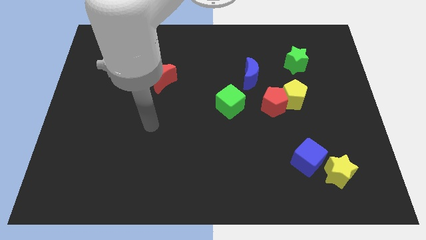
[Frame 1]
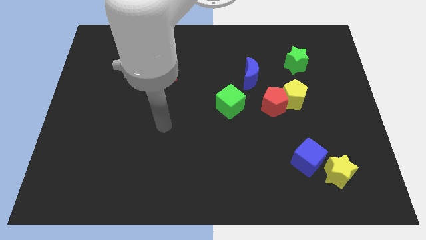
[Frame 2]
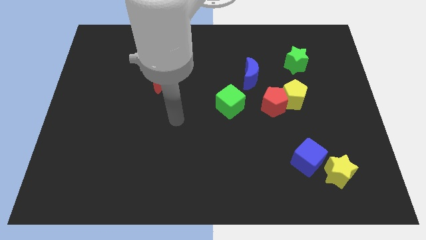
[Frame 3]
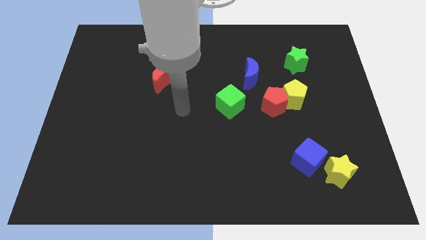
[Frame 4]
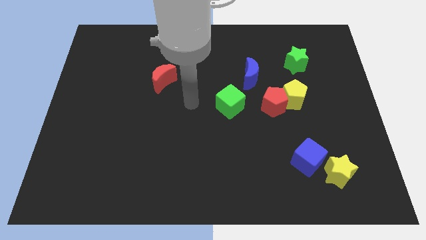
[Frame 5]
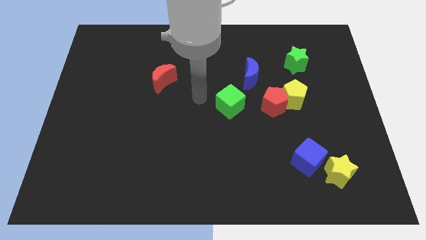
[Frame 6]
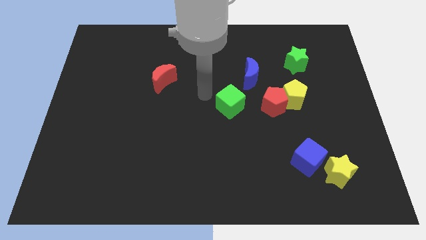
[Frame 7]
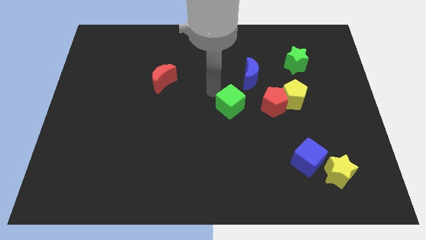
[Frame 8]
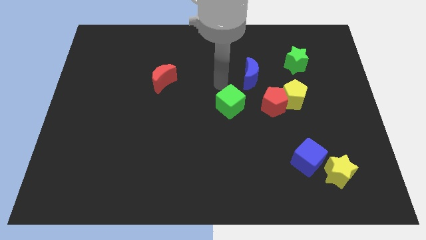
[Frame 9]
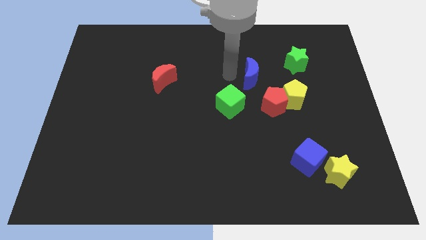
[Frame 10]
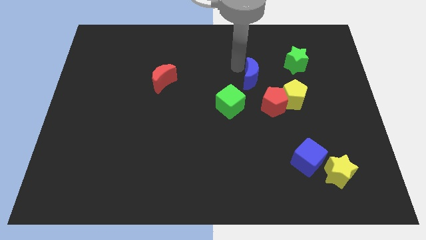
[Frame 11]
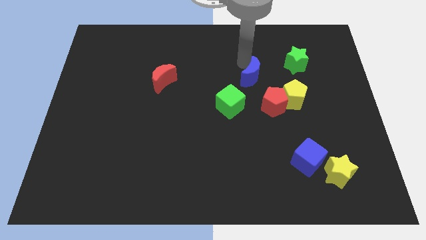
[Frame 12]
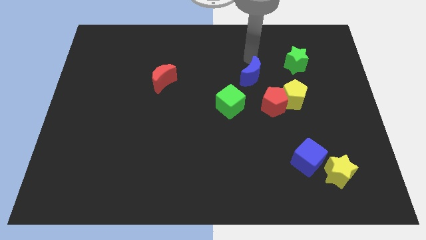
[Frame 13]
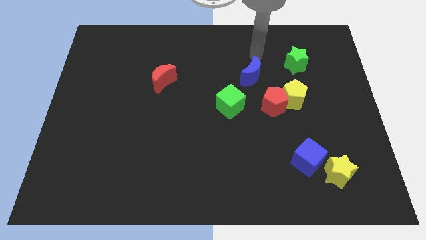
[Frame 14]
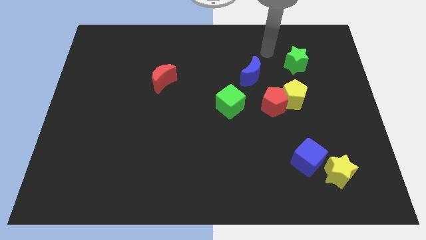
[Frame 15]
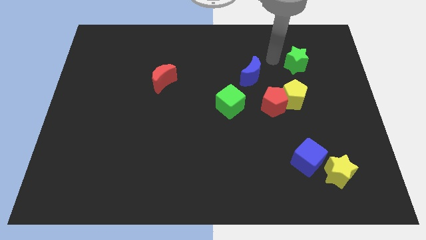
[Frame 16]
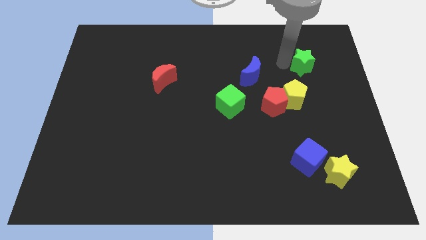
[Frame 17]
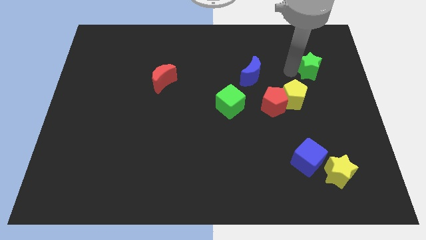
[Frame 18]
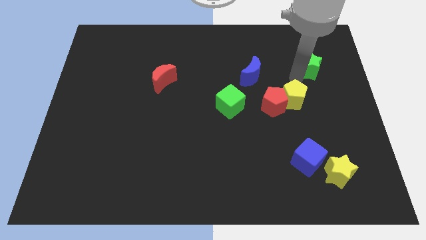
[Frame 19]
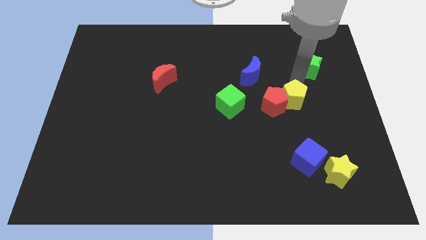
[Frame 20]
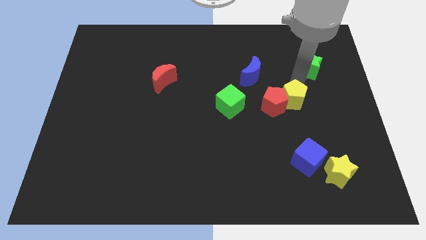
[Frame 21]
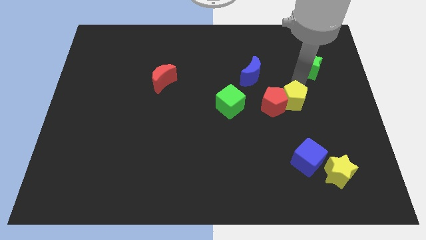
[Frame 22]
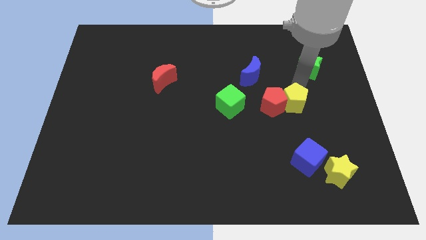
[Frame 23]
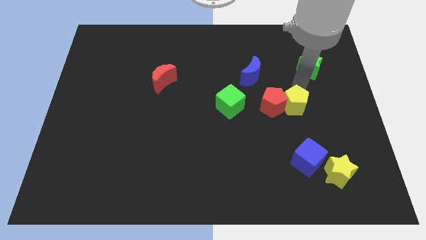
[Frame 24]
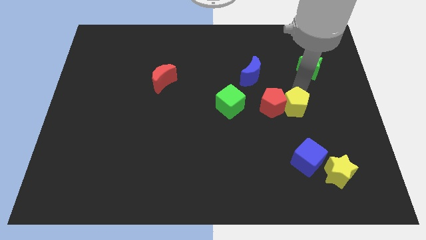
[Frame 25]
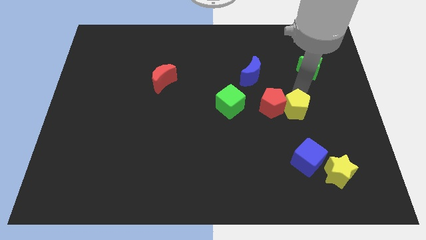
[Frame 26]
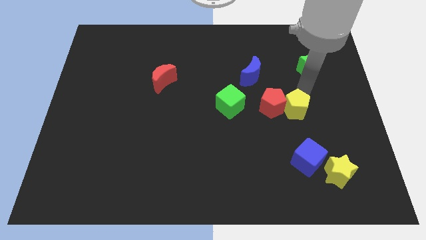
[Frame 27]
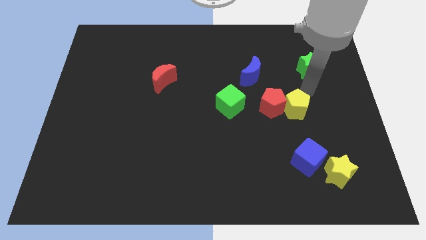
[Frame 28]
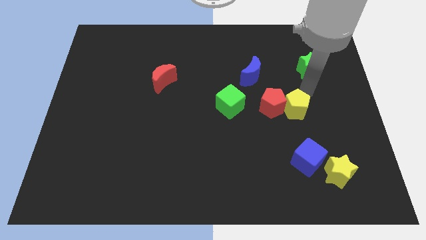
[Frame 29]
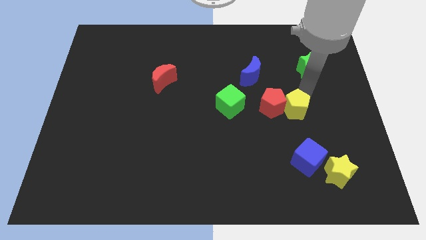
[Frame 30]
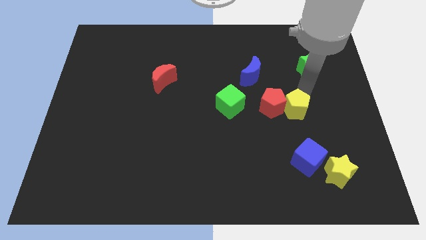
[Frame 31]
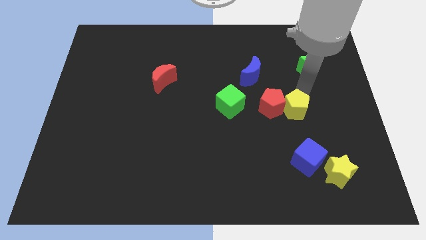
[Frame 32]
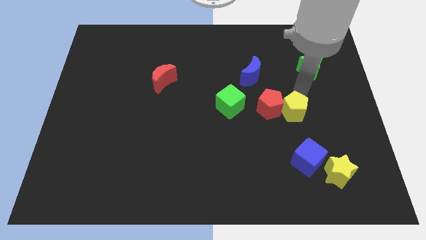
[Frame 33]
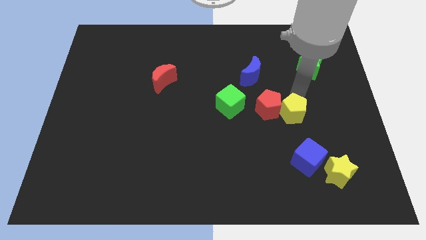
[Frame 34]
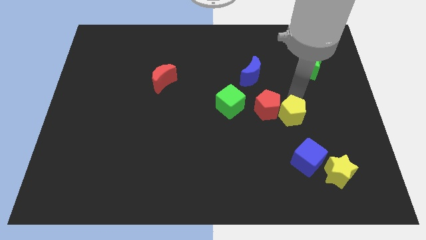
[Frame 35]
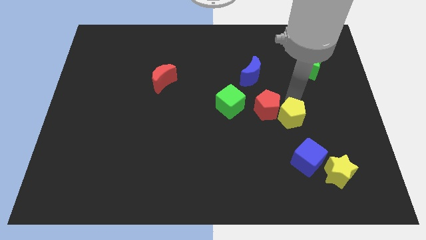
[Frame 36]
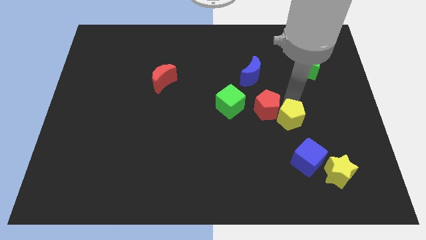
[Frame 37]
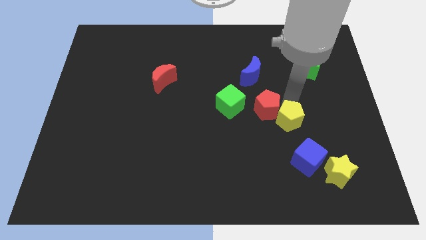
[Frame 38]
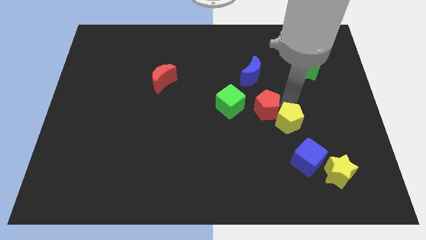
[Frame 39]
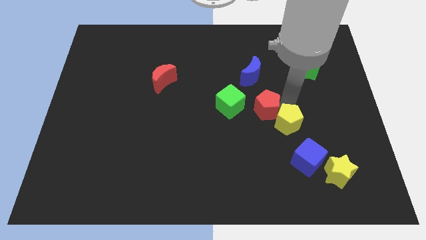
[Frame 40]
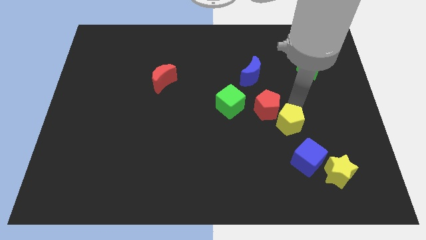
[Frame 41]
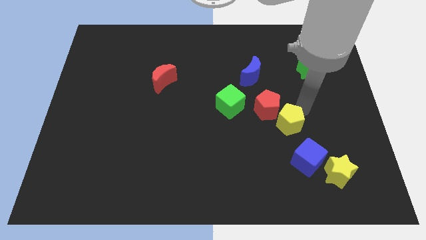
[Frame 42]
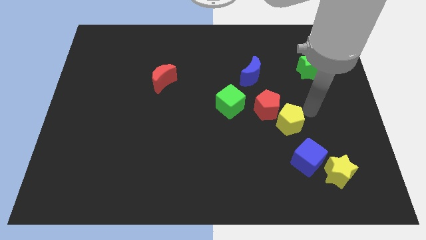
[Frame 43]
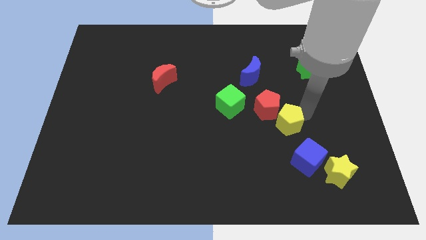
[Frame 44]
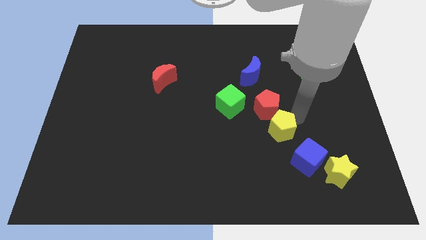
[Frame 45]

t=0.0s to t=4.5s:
move the yellow pentagon downwards and left diagonally somewhat

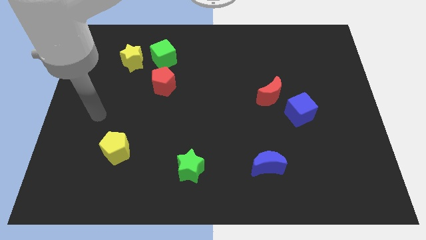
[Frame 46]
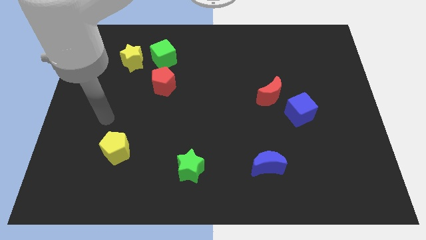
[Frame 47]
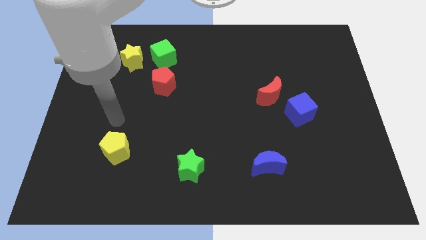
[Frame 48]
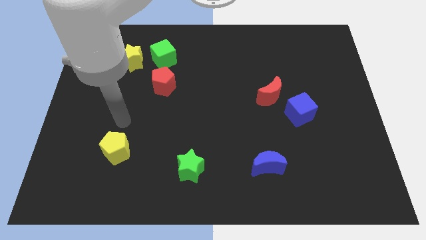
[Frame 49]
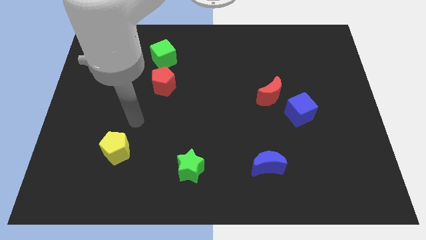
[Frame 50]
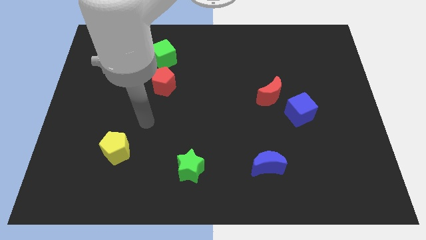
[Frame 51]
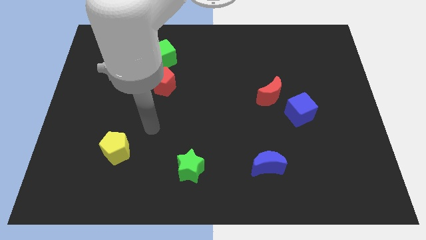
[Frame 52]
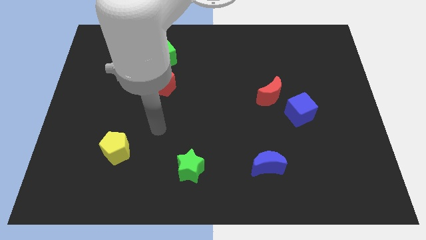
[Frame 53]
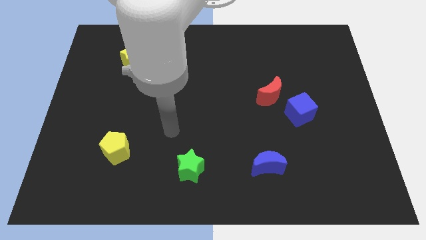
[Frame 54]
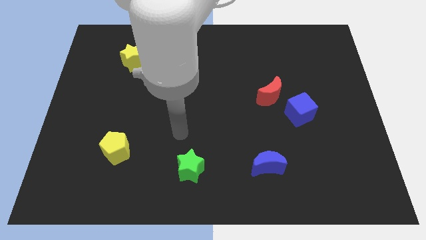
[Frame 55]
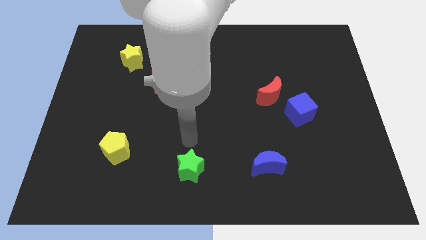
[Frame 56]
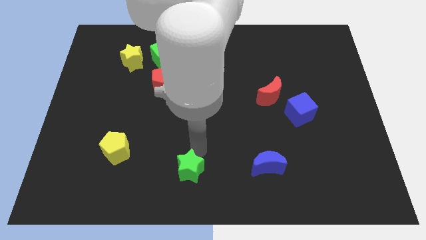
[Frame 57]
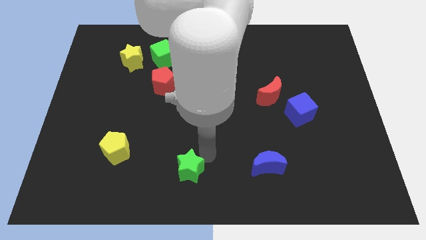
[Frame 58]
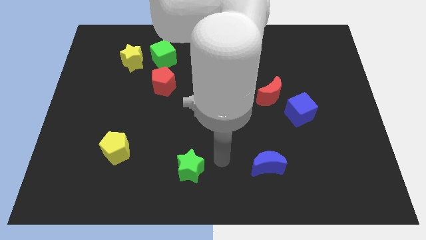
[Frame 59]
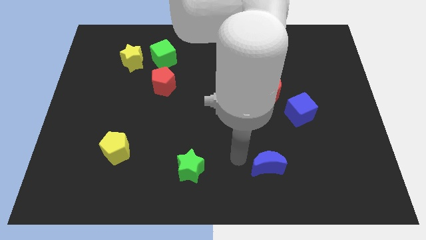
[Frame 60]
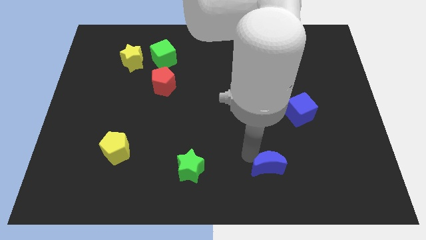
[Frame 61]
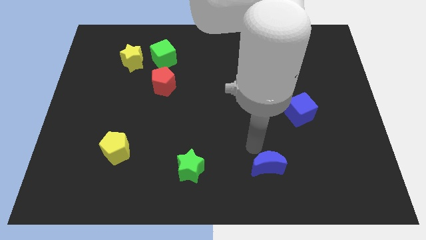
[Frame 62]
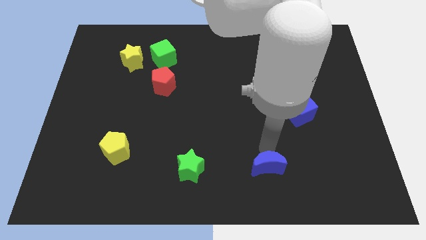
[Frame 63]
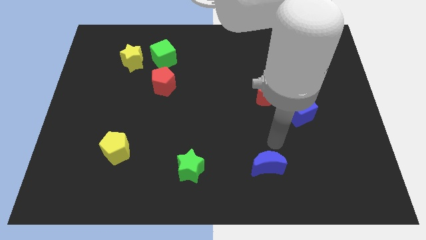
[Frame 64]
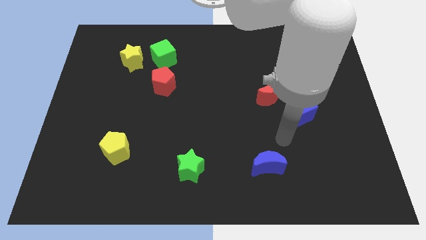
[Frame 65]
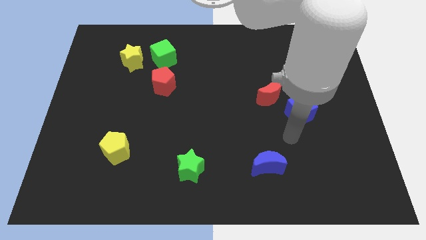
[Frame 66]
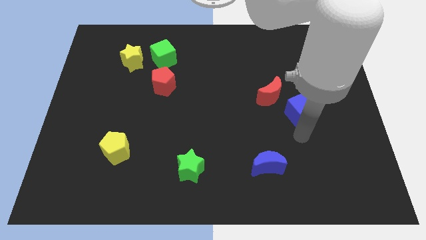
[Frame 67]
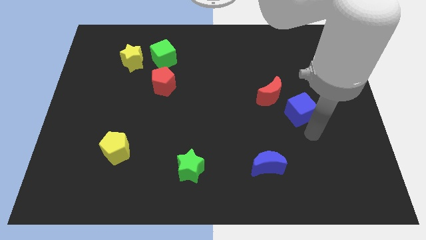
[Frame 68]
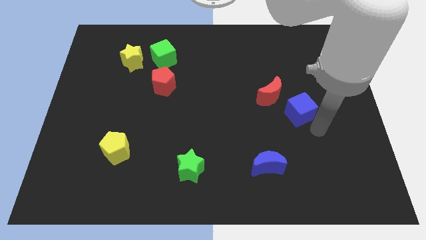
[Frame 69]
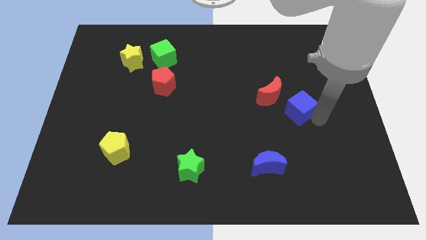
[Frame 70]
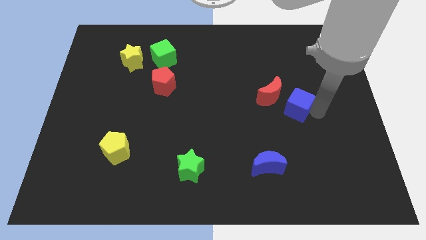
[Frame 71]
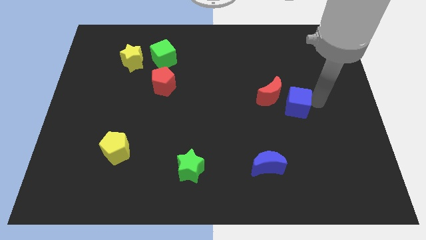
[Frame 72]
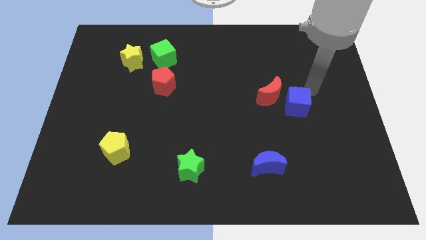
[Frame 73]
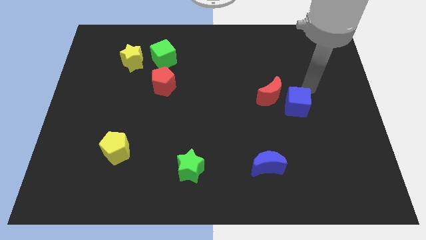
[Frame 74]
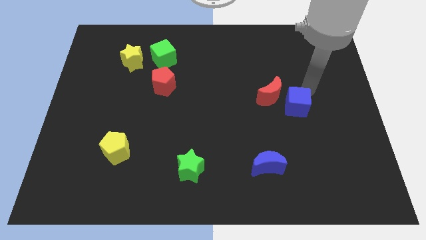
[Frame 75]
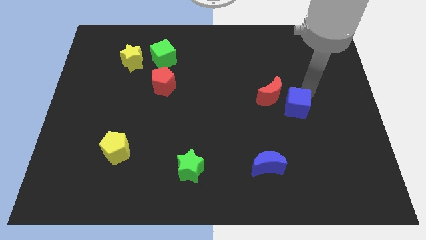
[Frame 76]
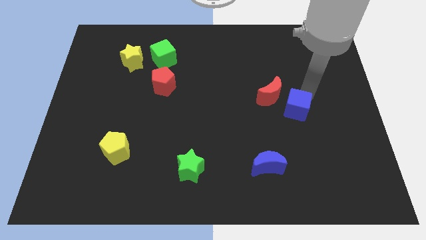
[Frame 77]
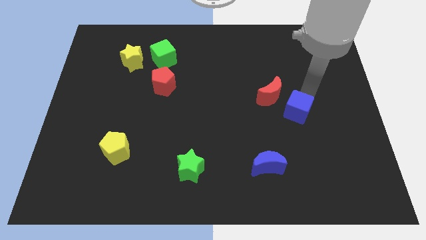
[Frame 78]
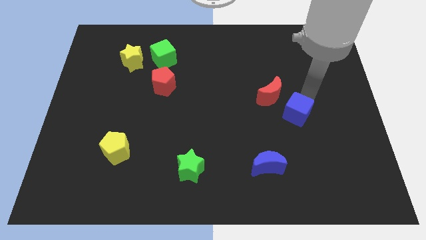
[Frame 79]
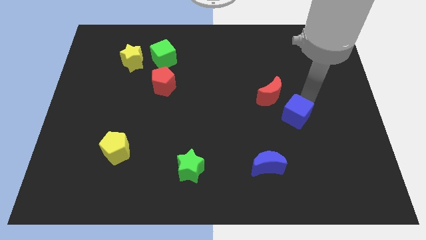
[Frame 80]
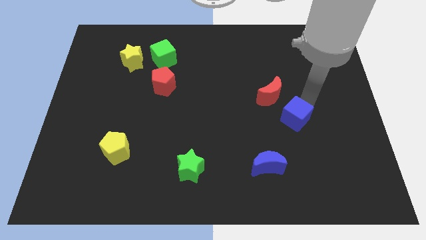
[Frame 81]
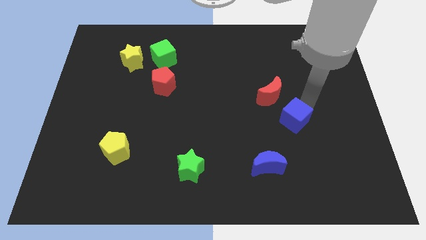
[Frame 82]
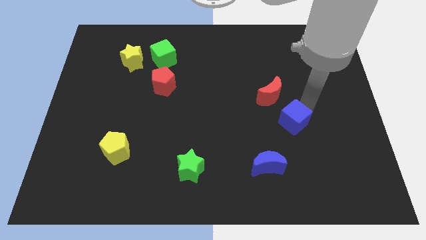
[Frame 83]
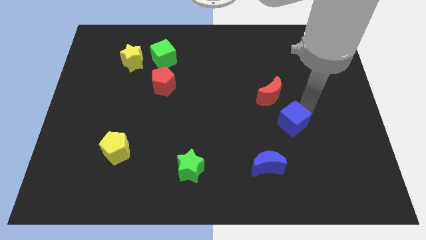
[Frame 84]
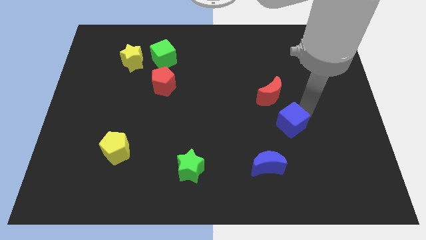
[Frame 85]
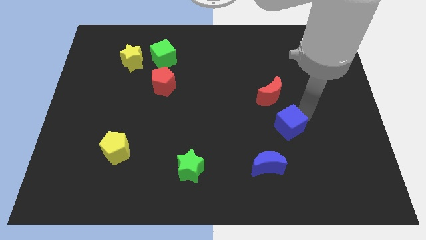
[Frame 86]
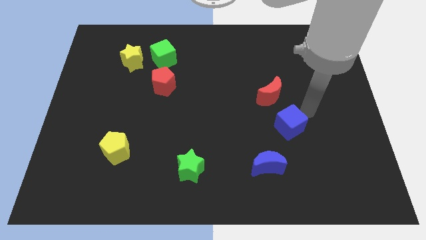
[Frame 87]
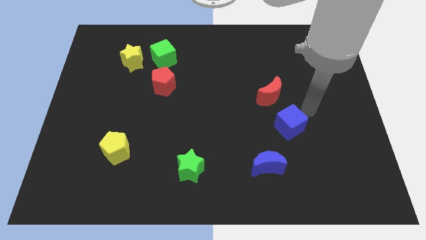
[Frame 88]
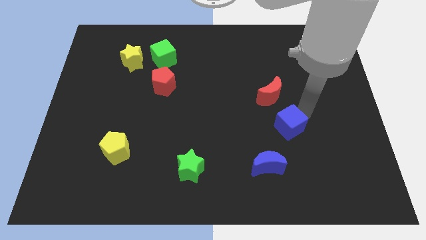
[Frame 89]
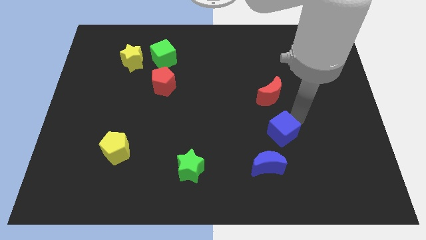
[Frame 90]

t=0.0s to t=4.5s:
slide the blue cube a little bit downwards and then left
